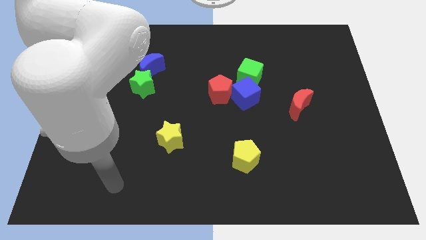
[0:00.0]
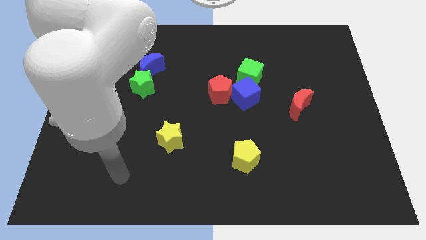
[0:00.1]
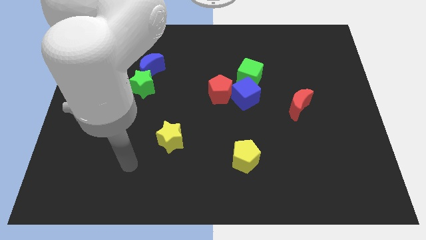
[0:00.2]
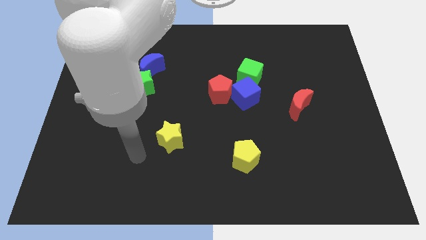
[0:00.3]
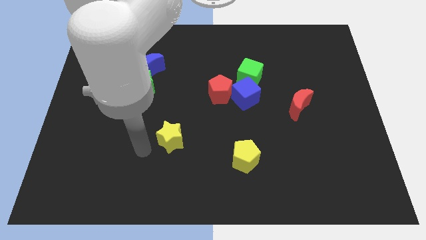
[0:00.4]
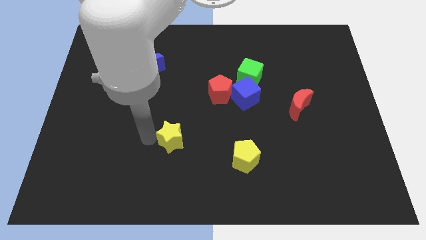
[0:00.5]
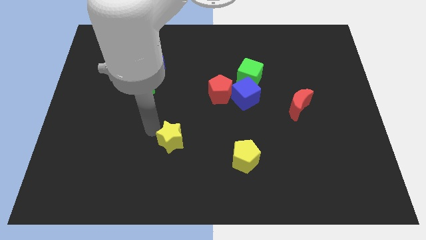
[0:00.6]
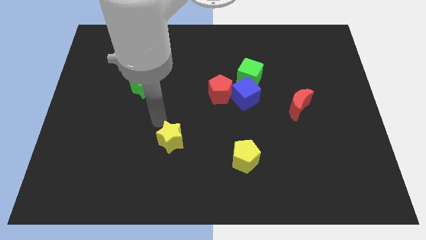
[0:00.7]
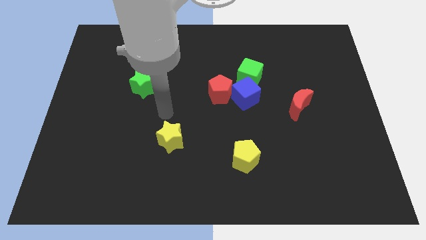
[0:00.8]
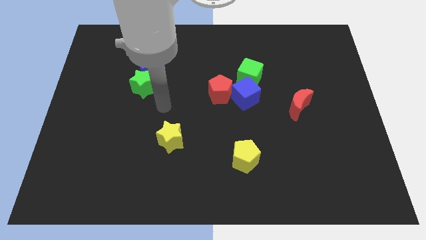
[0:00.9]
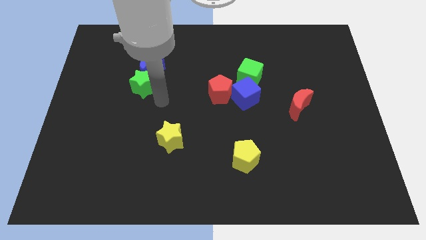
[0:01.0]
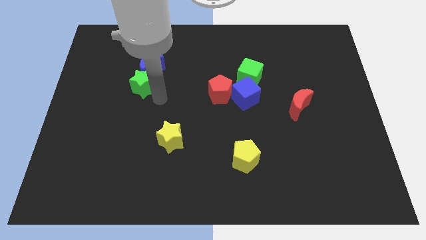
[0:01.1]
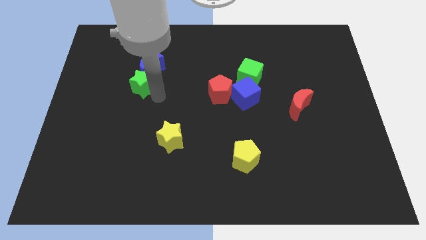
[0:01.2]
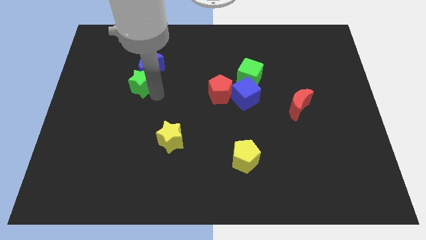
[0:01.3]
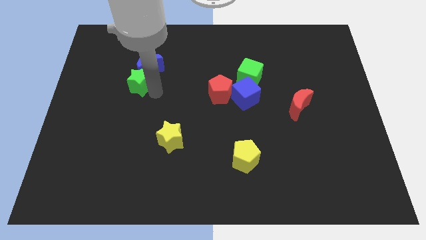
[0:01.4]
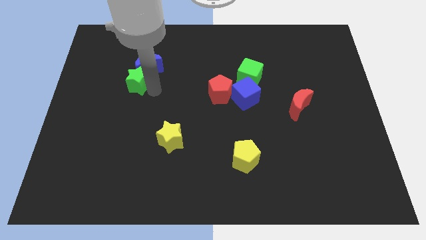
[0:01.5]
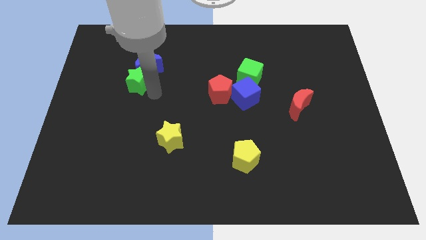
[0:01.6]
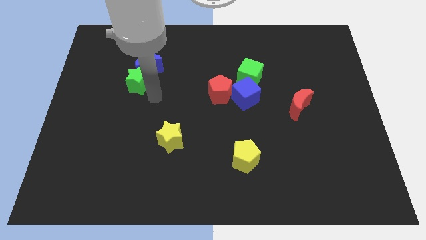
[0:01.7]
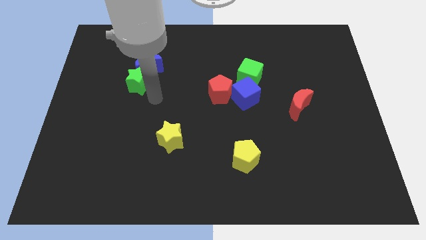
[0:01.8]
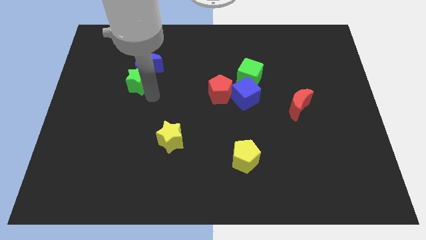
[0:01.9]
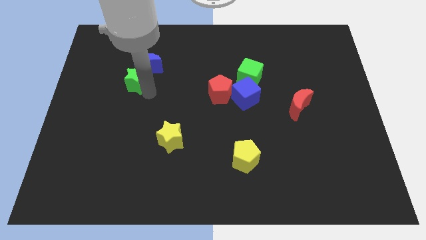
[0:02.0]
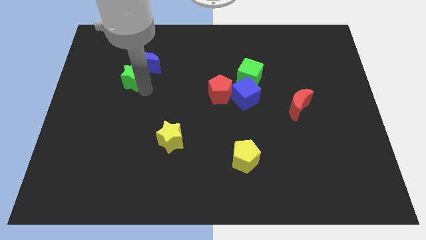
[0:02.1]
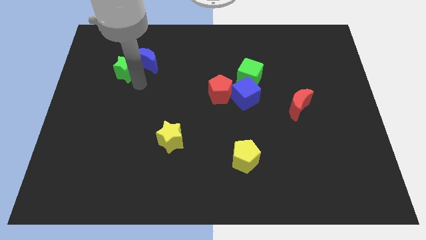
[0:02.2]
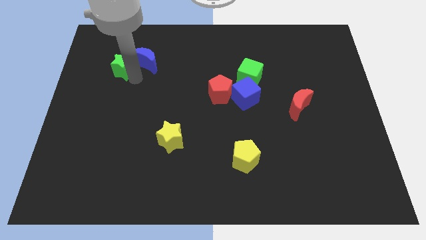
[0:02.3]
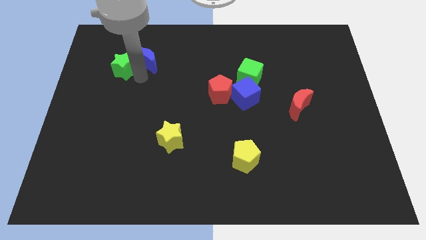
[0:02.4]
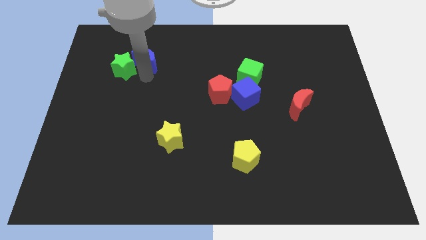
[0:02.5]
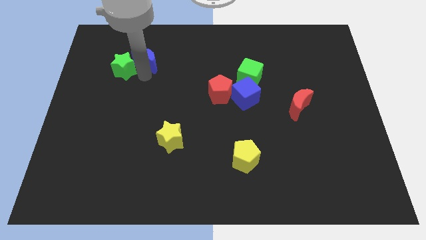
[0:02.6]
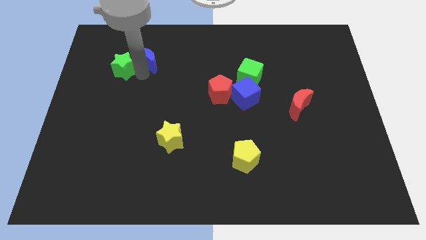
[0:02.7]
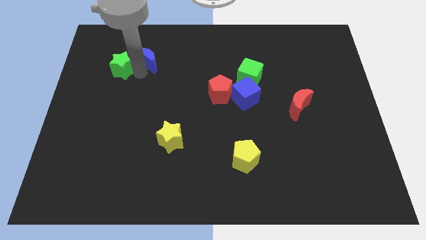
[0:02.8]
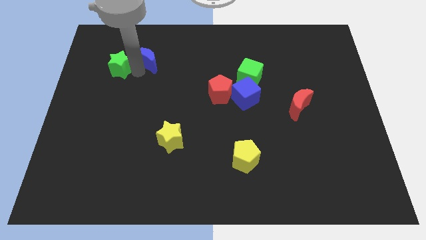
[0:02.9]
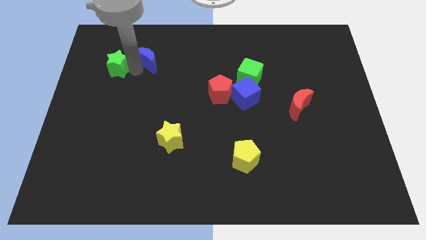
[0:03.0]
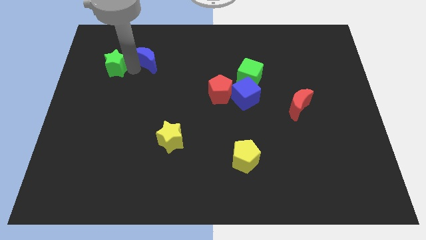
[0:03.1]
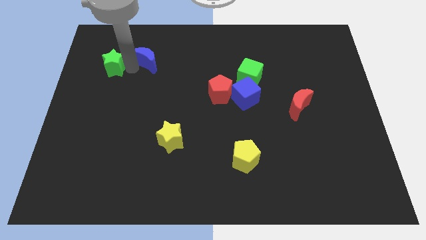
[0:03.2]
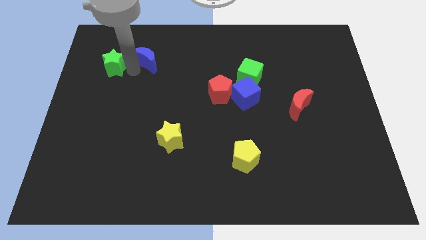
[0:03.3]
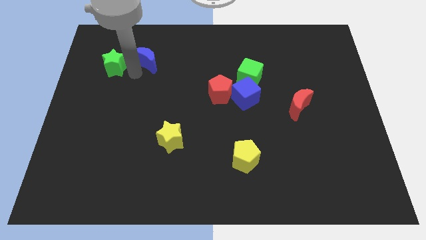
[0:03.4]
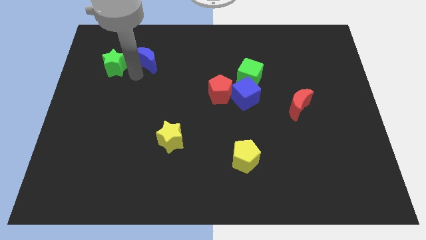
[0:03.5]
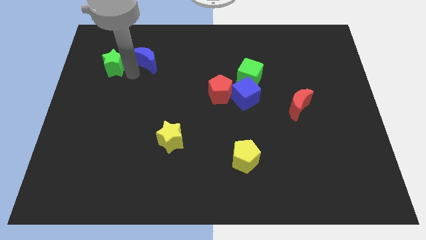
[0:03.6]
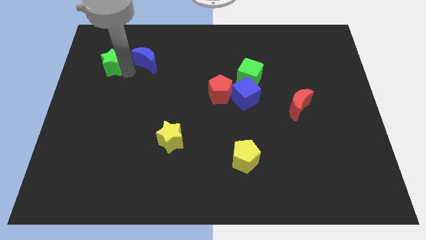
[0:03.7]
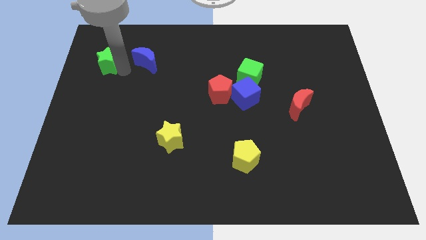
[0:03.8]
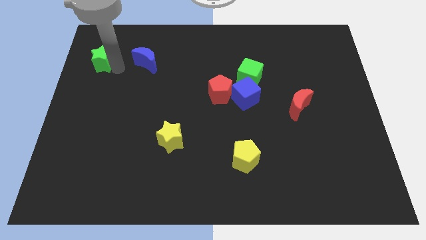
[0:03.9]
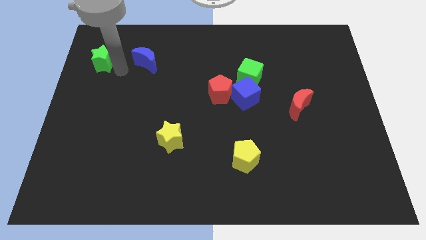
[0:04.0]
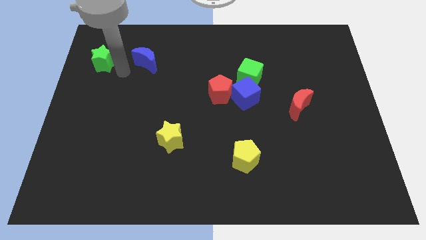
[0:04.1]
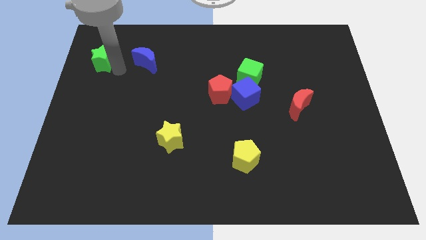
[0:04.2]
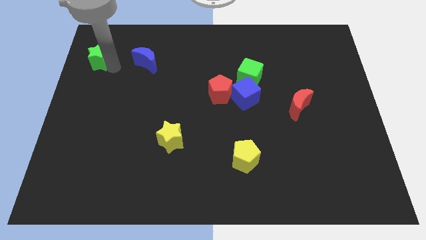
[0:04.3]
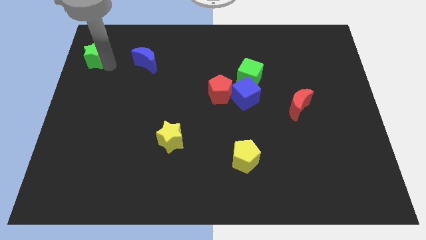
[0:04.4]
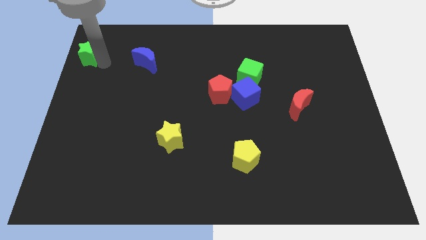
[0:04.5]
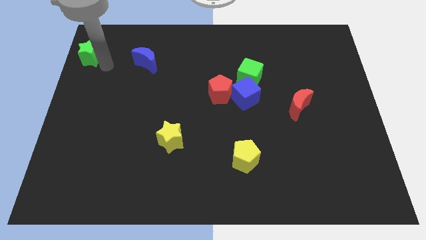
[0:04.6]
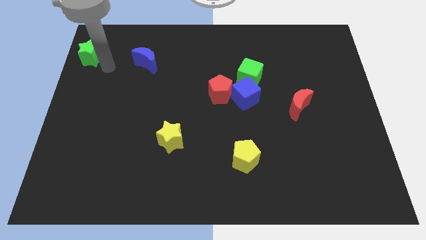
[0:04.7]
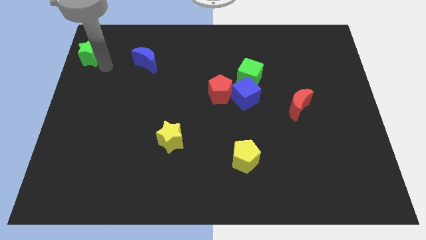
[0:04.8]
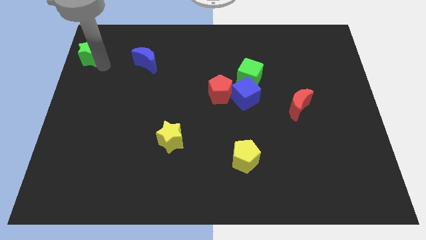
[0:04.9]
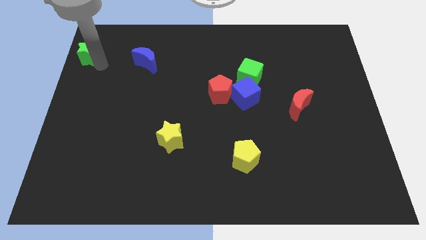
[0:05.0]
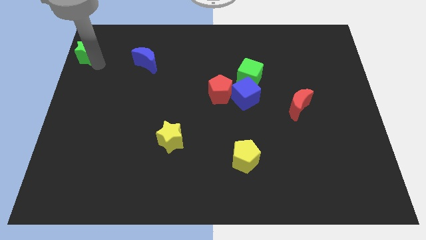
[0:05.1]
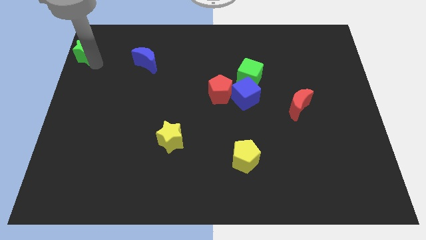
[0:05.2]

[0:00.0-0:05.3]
push the green star to the top left
